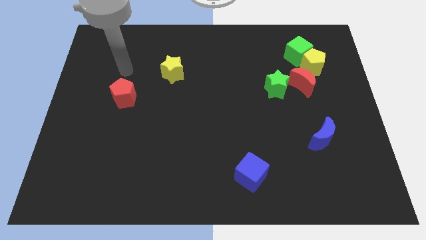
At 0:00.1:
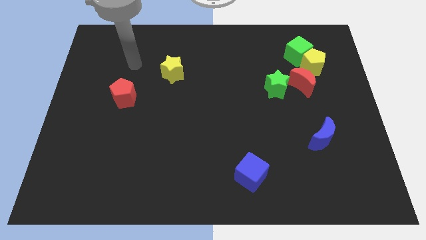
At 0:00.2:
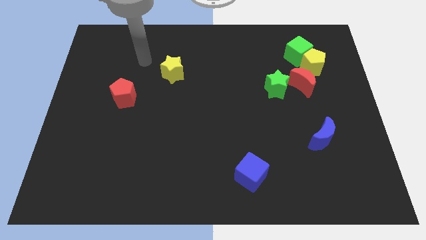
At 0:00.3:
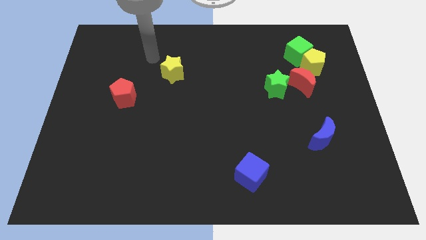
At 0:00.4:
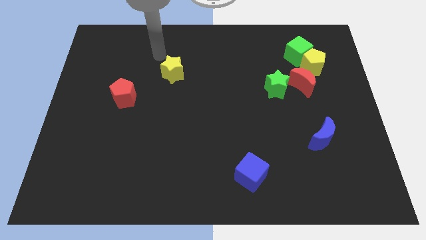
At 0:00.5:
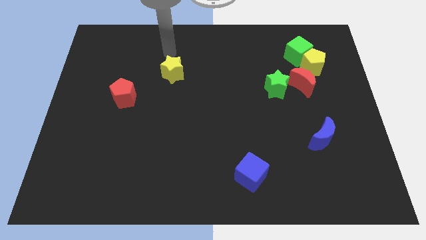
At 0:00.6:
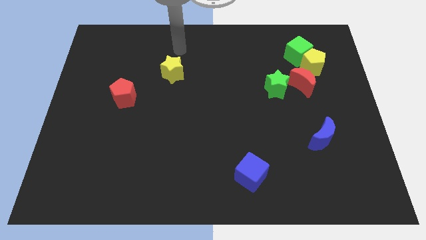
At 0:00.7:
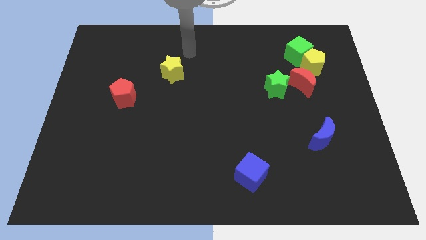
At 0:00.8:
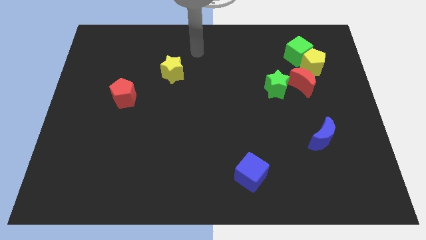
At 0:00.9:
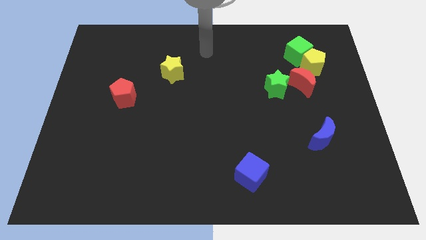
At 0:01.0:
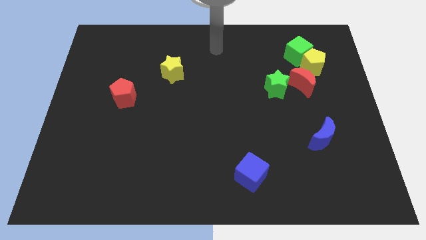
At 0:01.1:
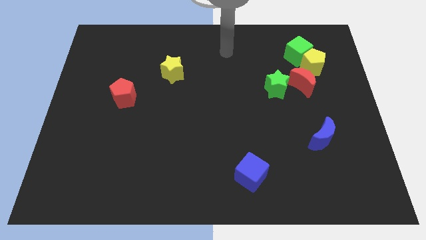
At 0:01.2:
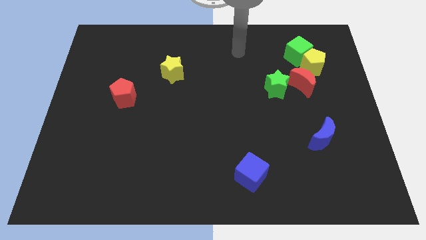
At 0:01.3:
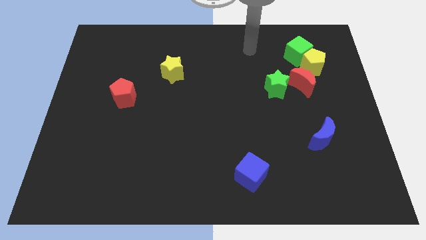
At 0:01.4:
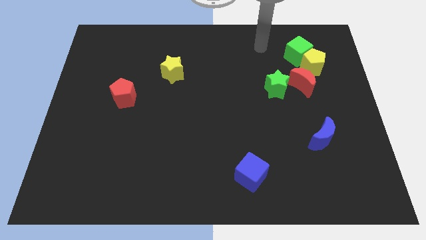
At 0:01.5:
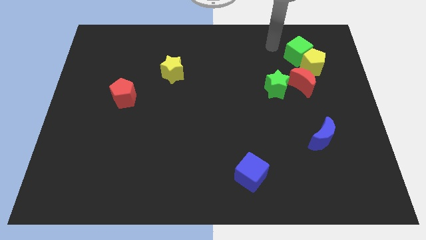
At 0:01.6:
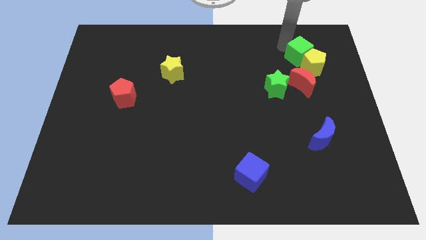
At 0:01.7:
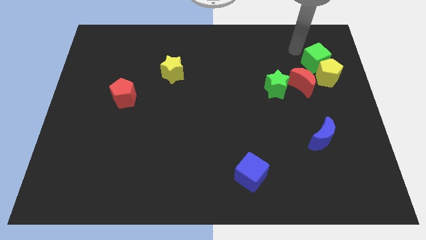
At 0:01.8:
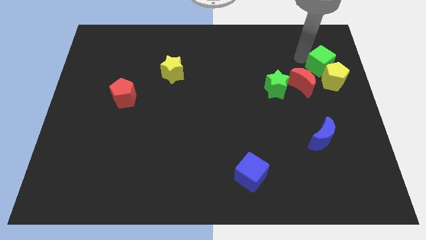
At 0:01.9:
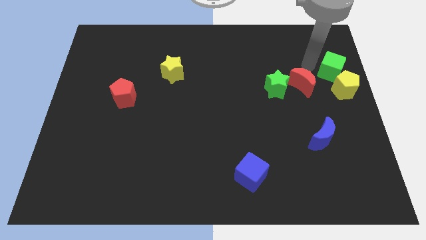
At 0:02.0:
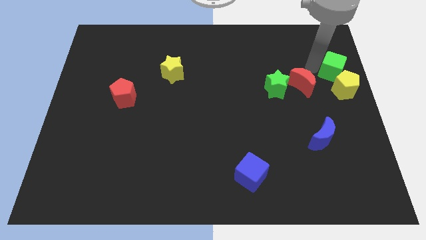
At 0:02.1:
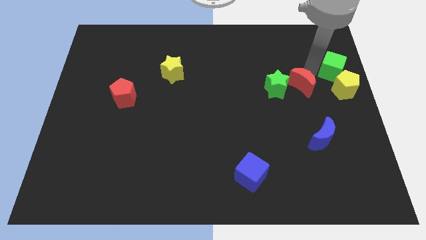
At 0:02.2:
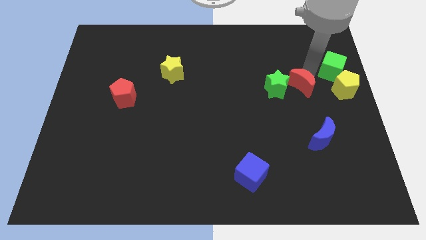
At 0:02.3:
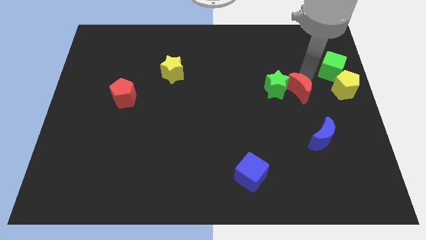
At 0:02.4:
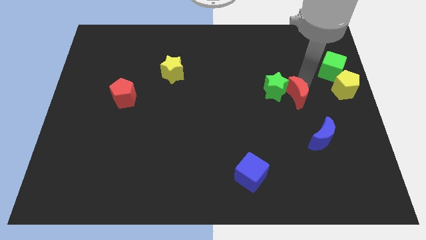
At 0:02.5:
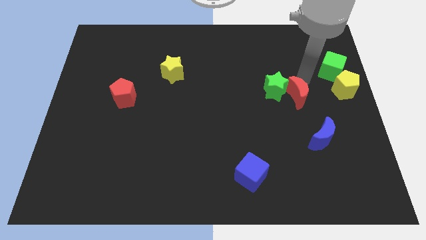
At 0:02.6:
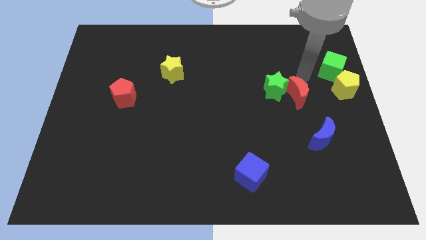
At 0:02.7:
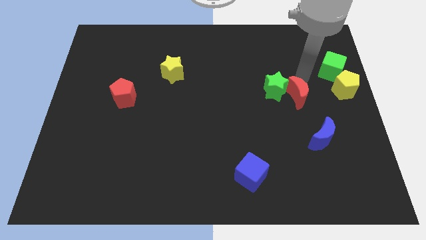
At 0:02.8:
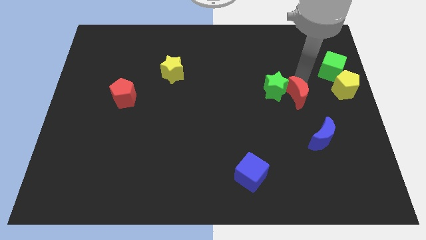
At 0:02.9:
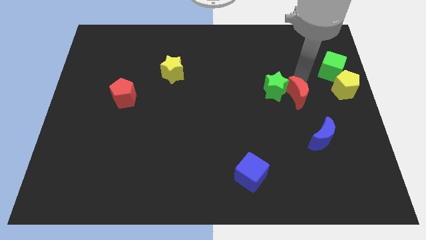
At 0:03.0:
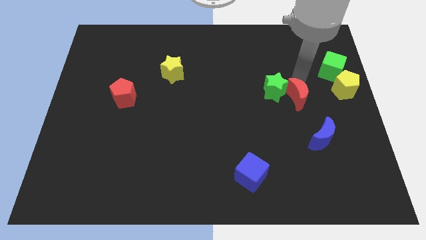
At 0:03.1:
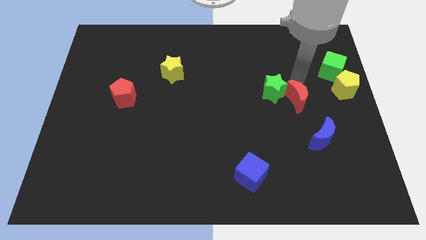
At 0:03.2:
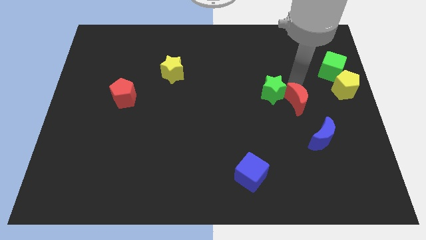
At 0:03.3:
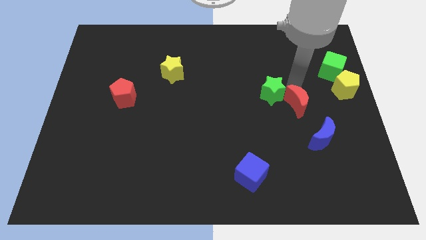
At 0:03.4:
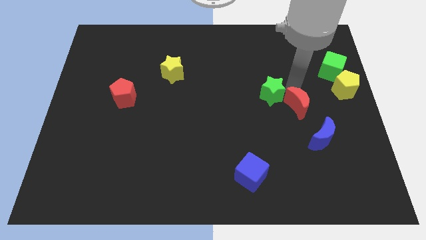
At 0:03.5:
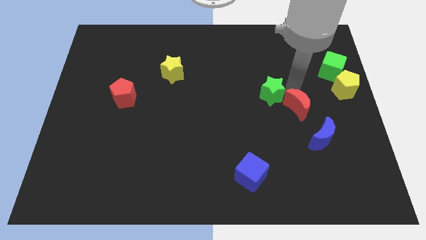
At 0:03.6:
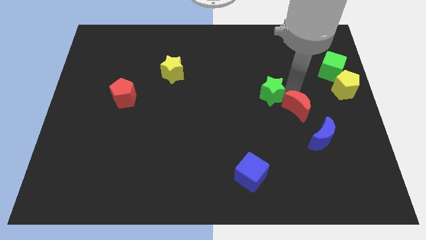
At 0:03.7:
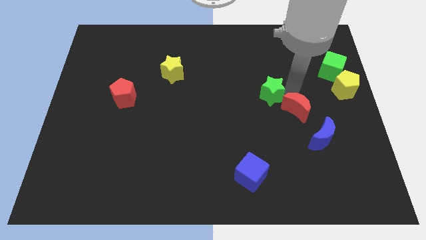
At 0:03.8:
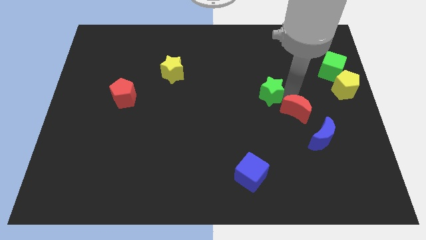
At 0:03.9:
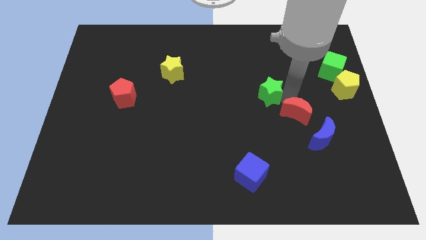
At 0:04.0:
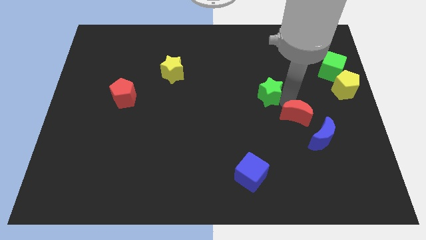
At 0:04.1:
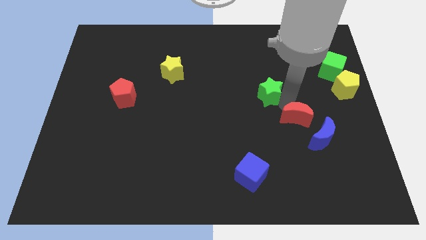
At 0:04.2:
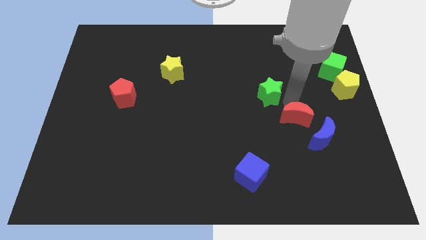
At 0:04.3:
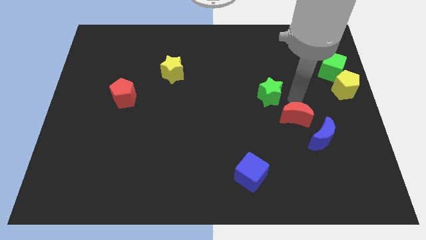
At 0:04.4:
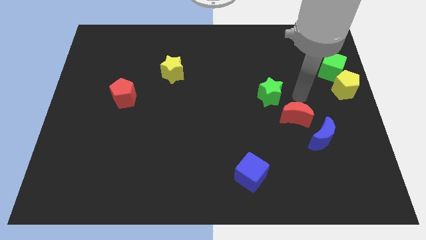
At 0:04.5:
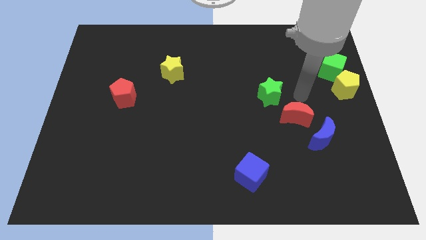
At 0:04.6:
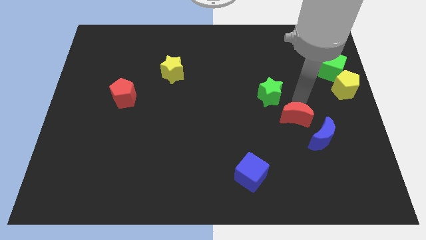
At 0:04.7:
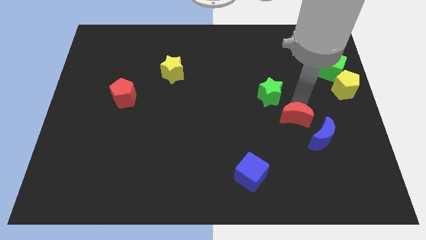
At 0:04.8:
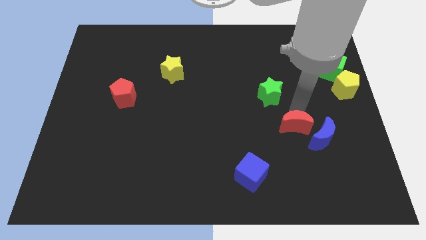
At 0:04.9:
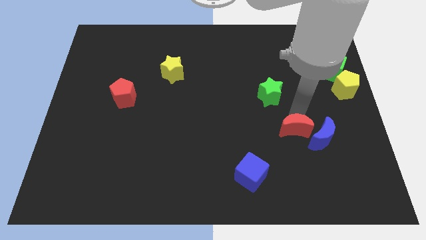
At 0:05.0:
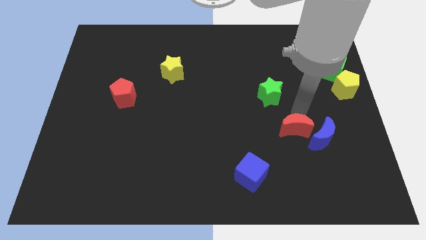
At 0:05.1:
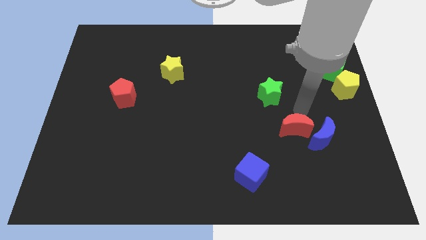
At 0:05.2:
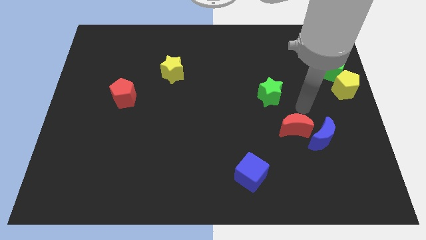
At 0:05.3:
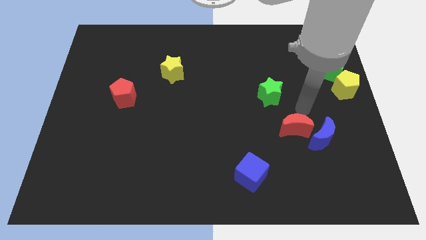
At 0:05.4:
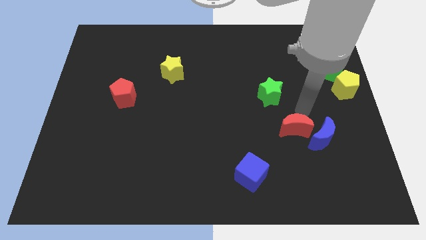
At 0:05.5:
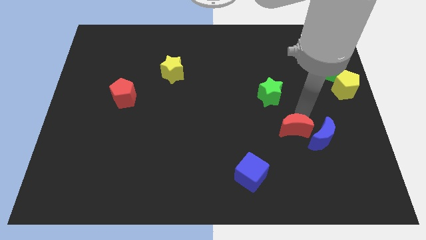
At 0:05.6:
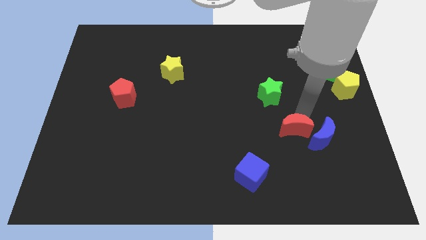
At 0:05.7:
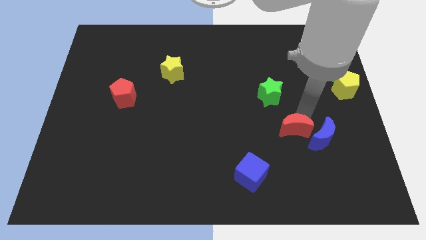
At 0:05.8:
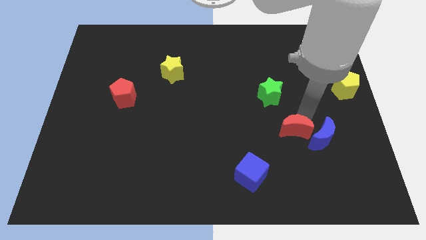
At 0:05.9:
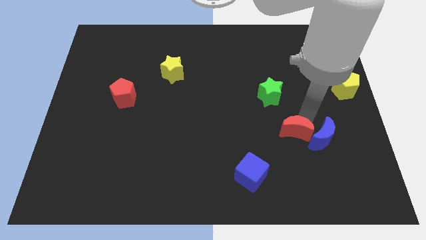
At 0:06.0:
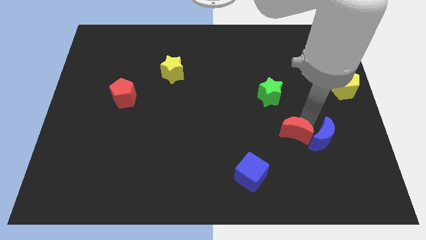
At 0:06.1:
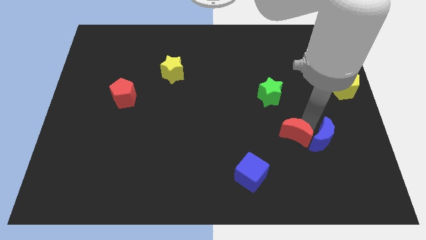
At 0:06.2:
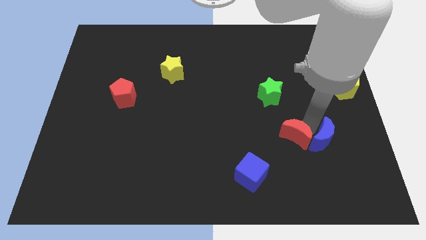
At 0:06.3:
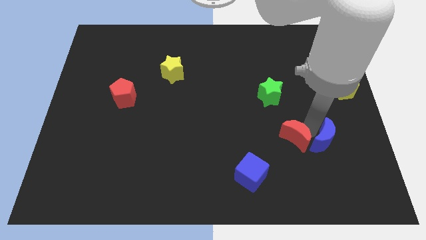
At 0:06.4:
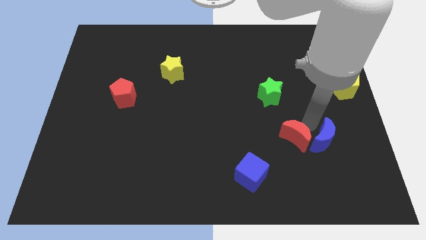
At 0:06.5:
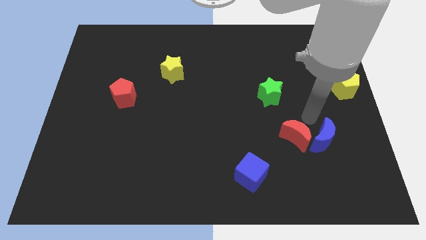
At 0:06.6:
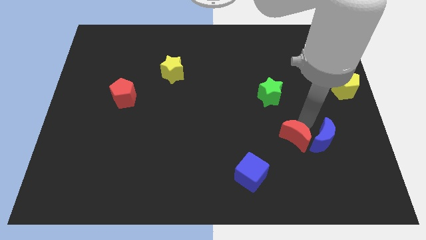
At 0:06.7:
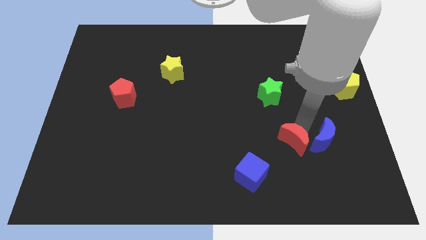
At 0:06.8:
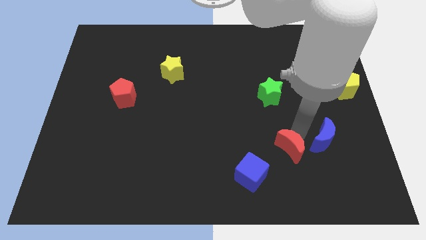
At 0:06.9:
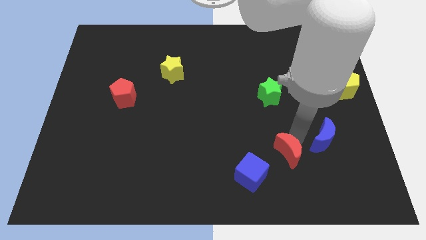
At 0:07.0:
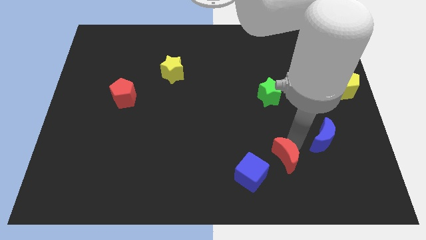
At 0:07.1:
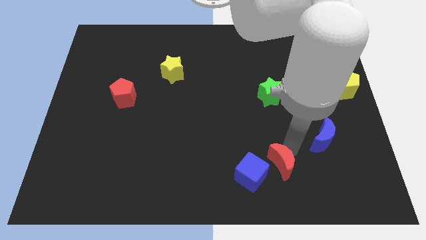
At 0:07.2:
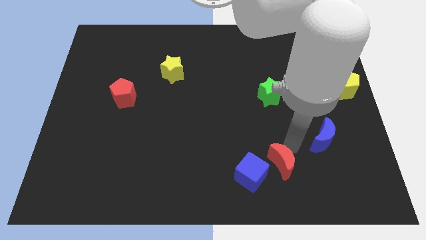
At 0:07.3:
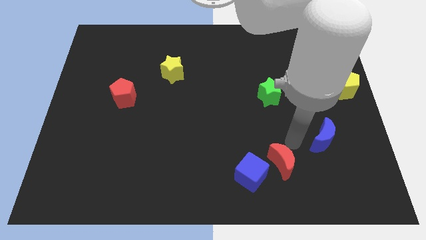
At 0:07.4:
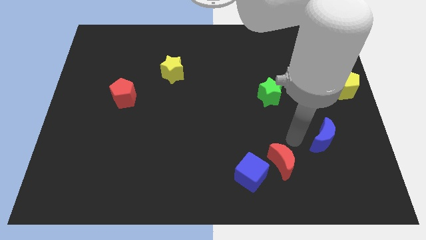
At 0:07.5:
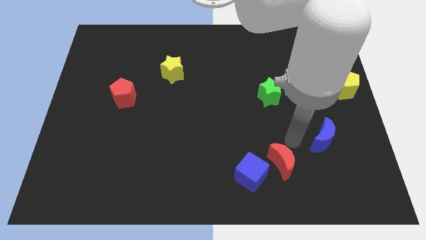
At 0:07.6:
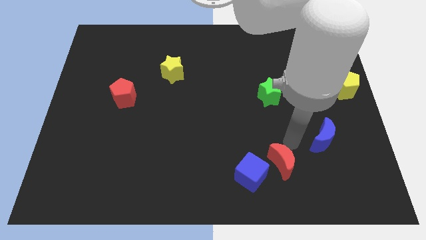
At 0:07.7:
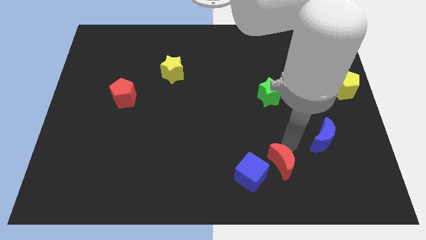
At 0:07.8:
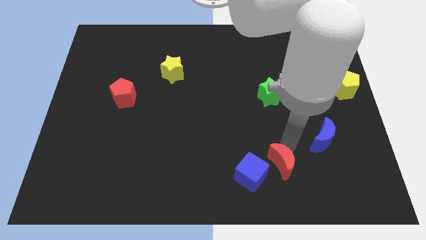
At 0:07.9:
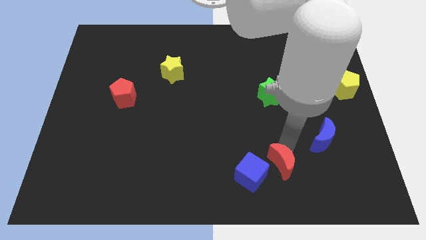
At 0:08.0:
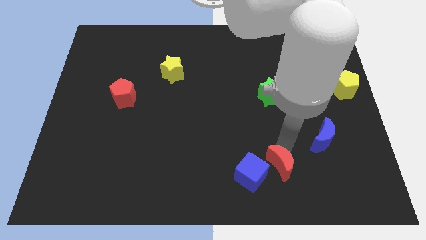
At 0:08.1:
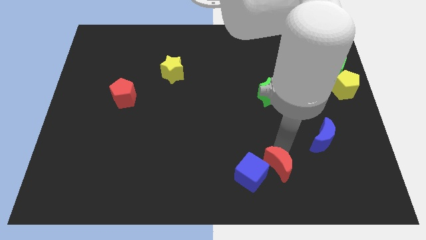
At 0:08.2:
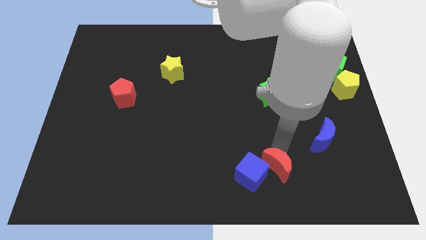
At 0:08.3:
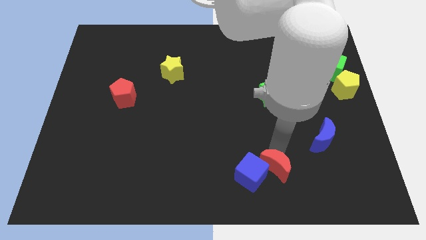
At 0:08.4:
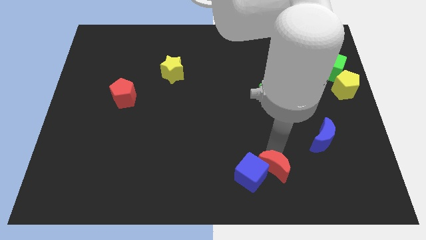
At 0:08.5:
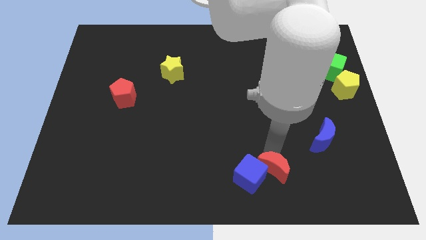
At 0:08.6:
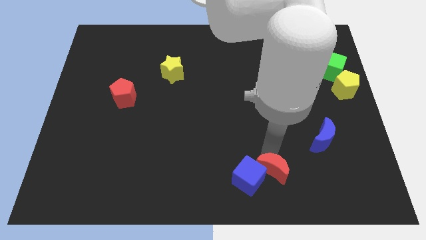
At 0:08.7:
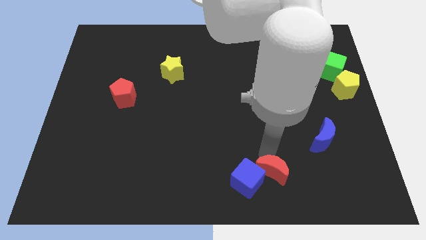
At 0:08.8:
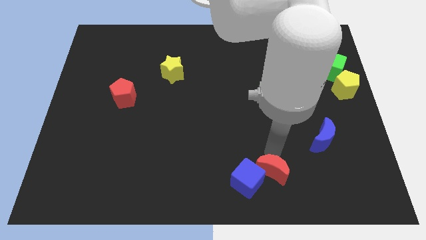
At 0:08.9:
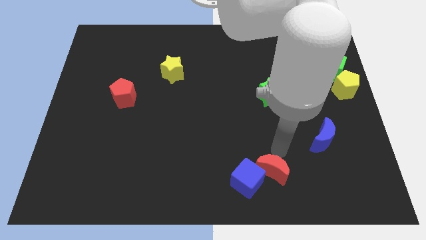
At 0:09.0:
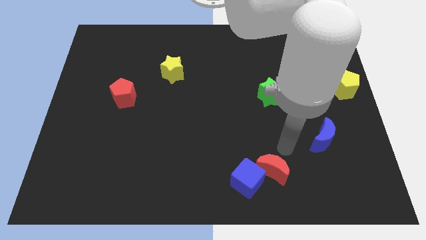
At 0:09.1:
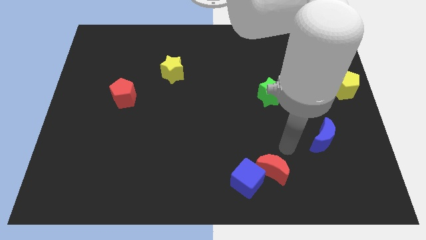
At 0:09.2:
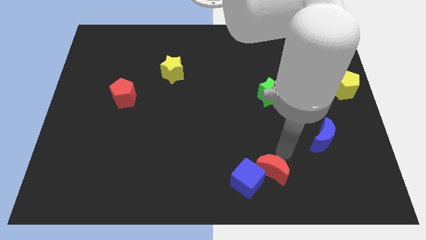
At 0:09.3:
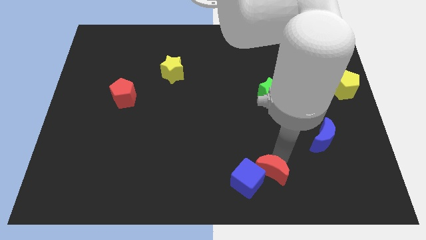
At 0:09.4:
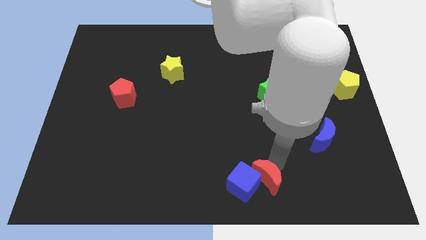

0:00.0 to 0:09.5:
move the red moon to the bottom side
